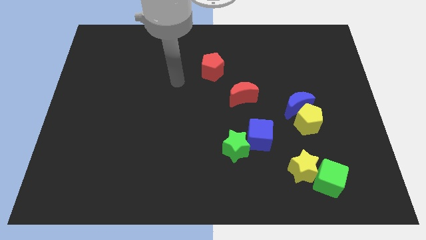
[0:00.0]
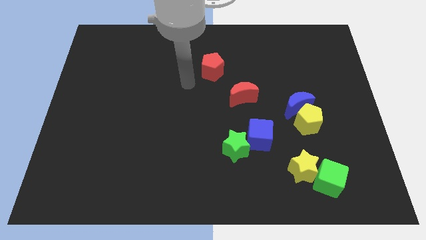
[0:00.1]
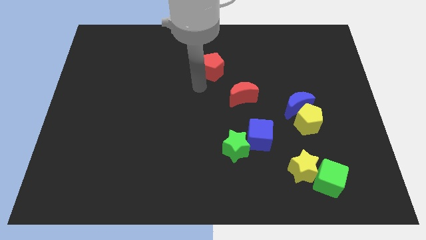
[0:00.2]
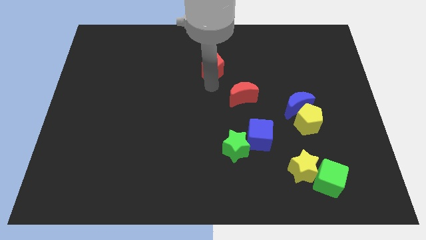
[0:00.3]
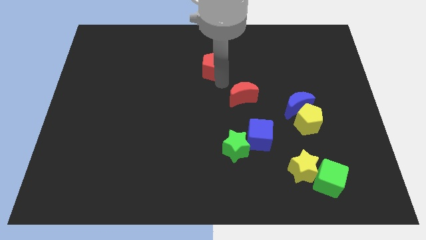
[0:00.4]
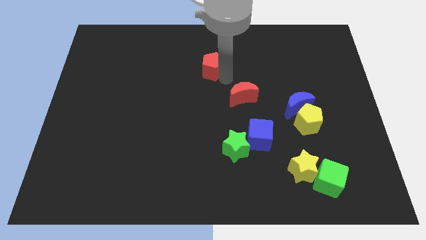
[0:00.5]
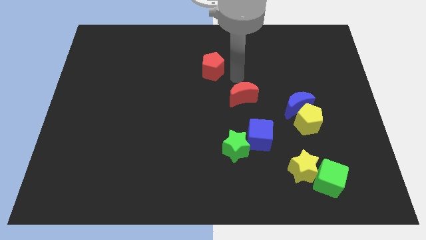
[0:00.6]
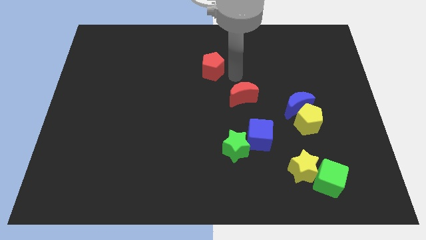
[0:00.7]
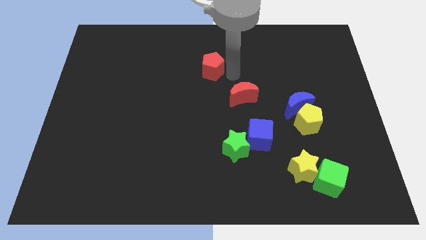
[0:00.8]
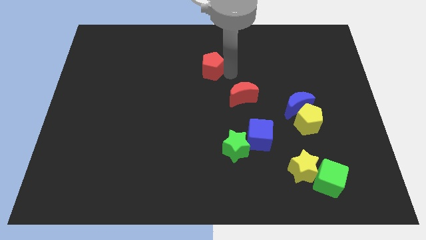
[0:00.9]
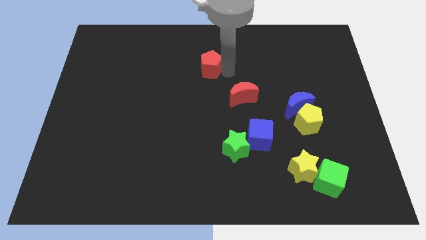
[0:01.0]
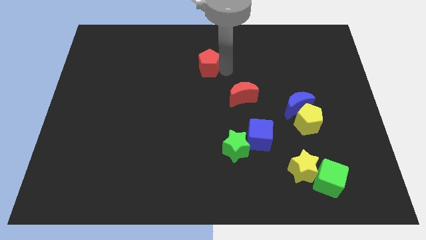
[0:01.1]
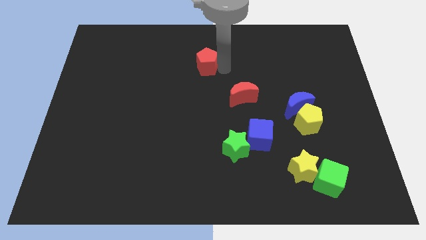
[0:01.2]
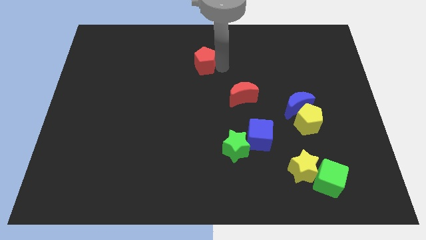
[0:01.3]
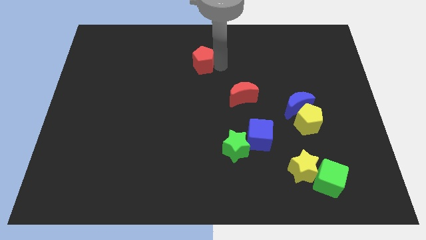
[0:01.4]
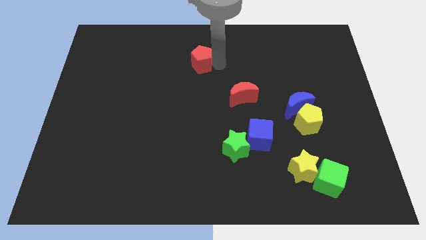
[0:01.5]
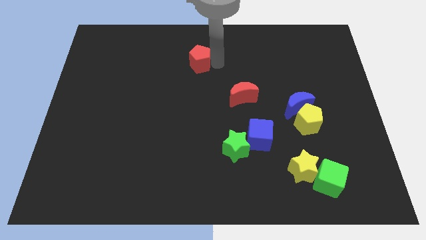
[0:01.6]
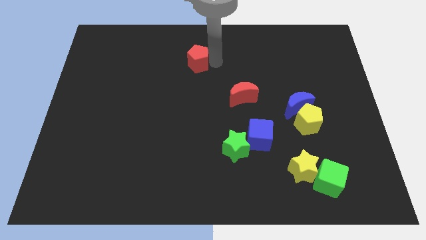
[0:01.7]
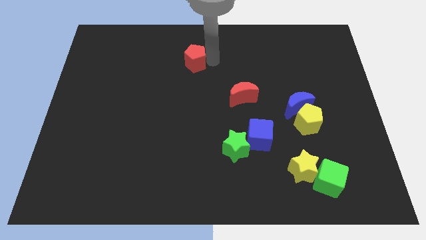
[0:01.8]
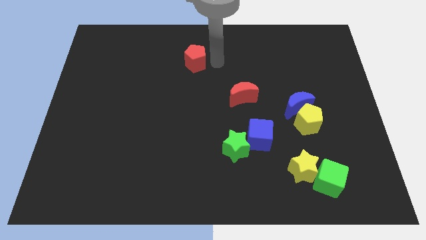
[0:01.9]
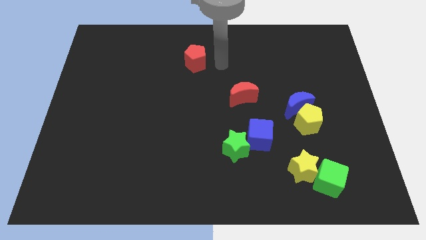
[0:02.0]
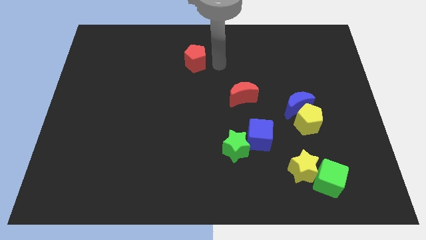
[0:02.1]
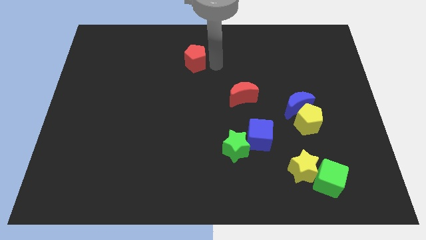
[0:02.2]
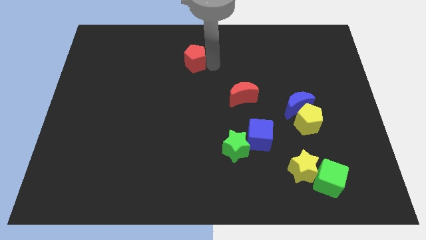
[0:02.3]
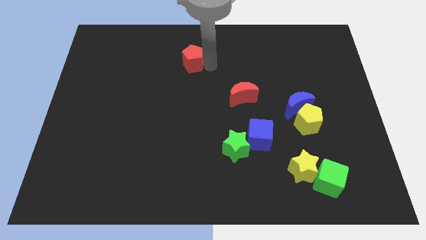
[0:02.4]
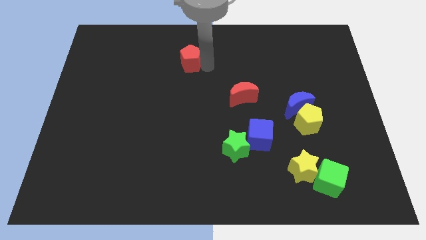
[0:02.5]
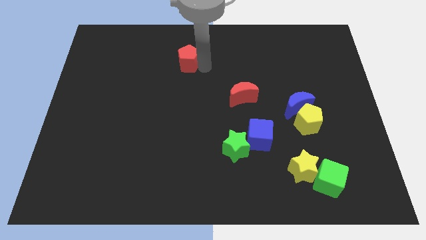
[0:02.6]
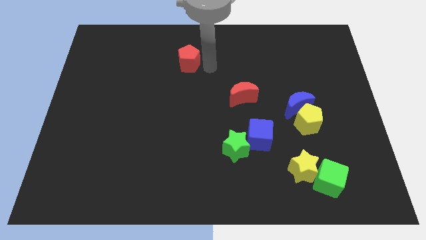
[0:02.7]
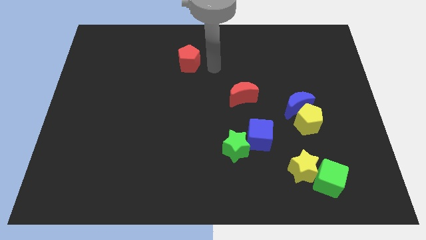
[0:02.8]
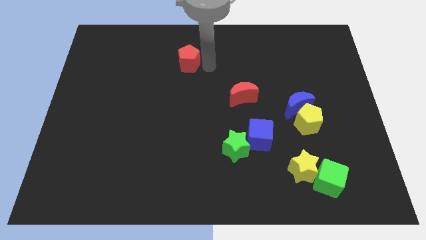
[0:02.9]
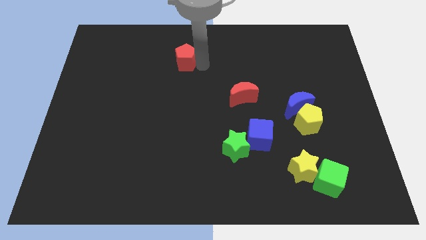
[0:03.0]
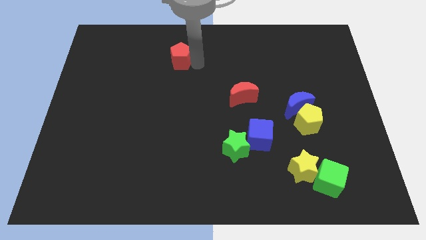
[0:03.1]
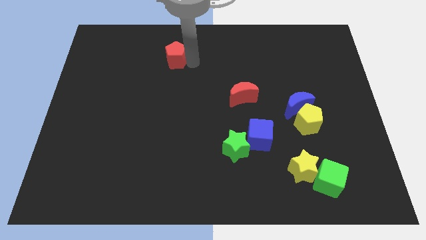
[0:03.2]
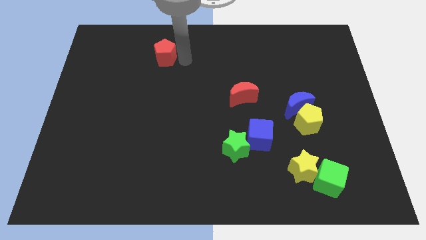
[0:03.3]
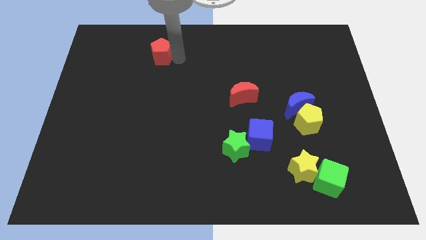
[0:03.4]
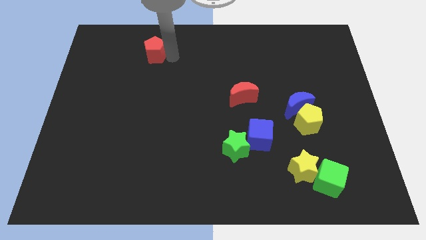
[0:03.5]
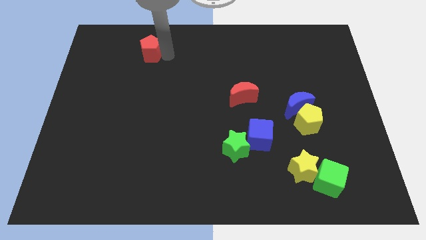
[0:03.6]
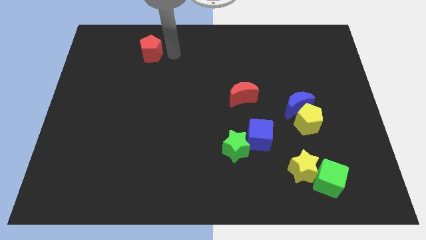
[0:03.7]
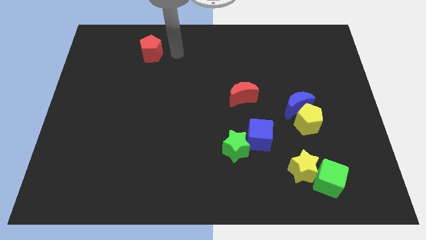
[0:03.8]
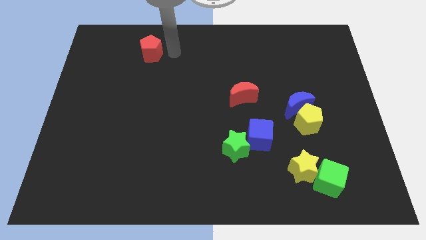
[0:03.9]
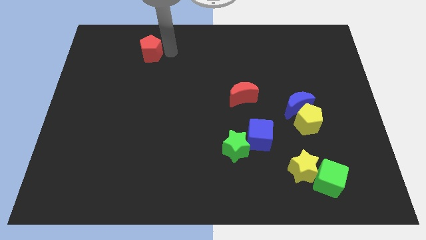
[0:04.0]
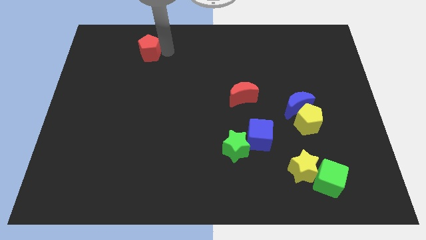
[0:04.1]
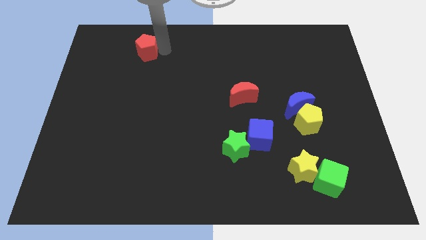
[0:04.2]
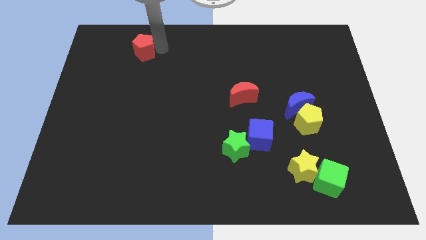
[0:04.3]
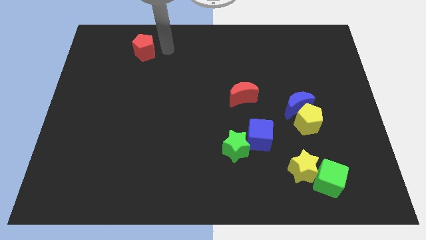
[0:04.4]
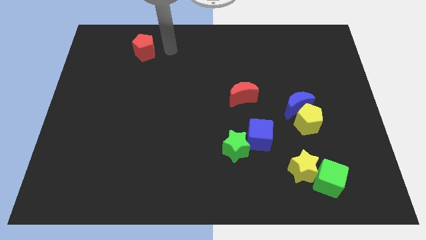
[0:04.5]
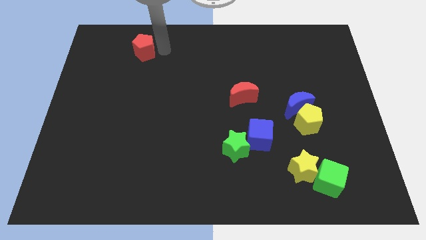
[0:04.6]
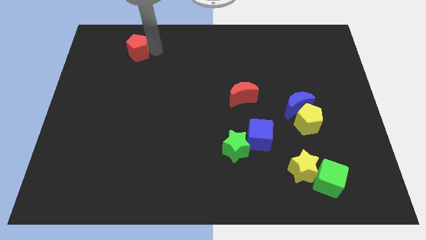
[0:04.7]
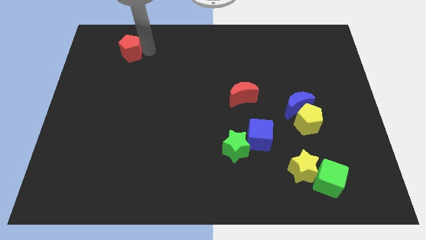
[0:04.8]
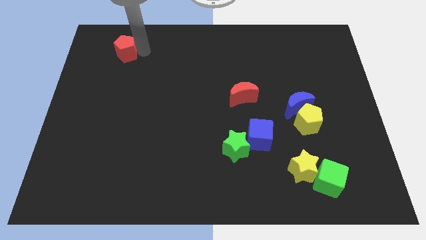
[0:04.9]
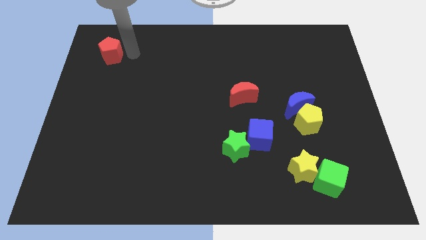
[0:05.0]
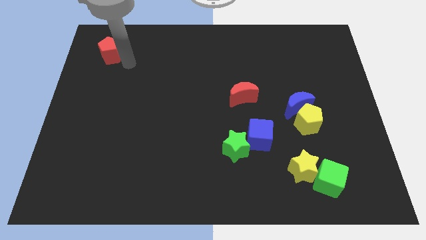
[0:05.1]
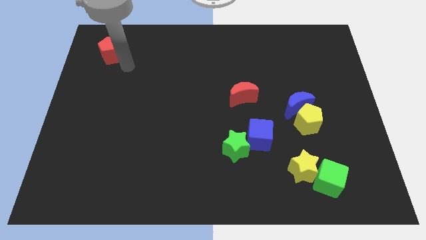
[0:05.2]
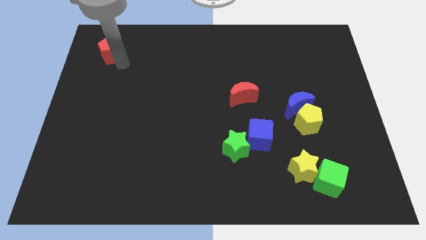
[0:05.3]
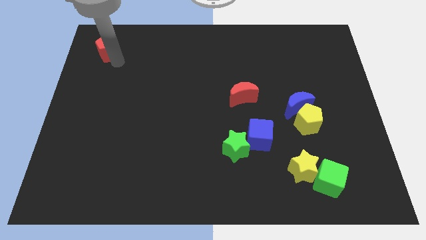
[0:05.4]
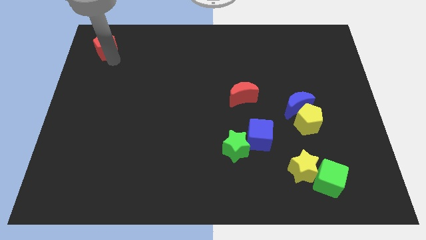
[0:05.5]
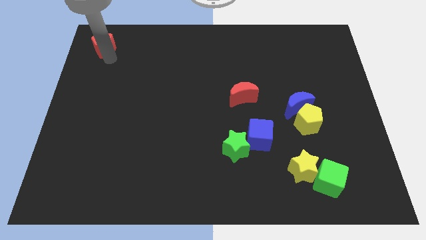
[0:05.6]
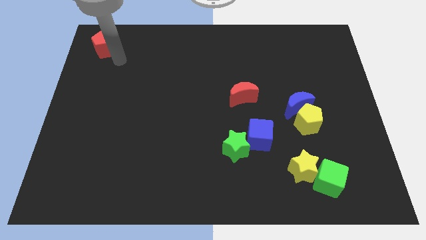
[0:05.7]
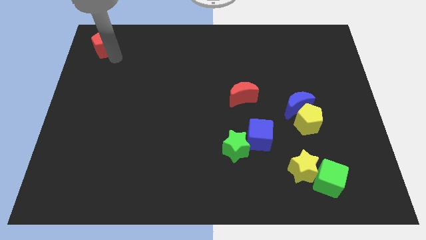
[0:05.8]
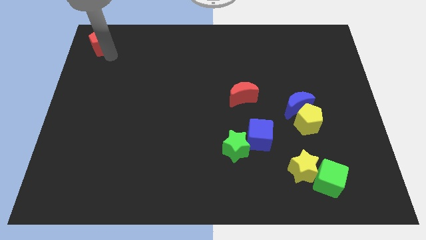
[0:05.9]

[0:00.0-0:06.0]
move the red pentagon to the top left corner

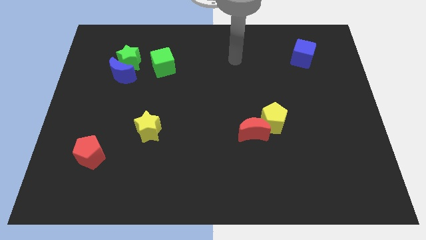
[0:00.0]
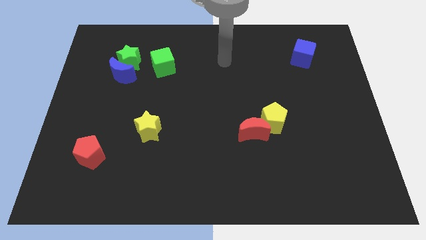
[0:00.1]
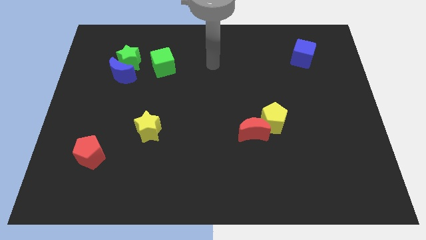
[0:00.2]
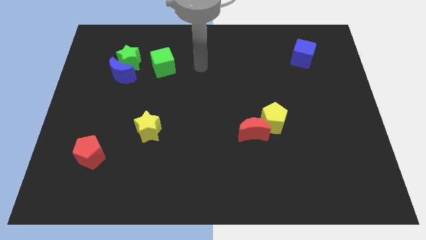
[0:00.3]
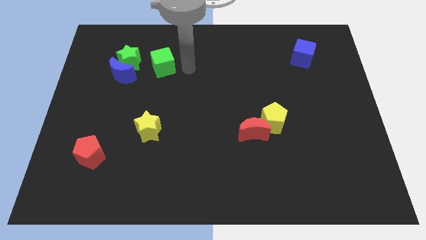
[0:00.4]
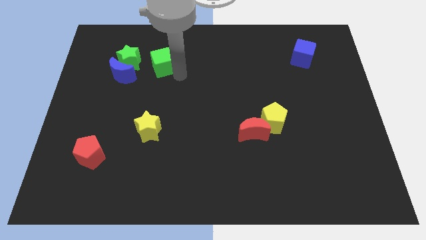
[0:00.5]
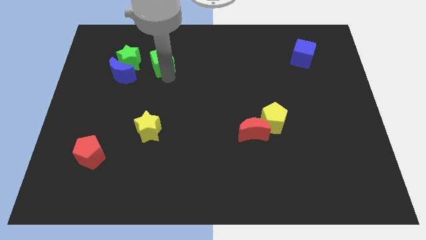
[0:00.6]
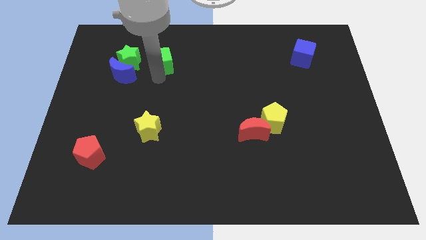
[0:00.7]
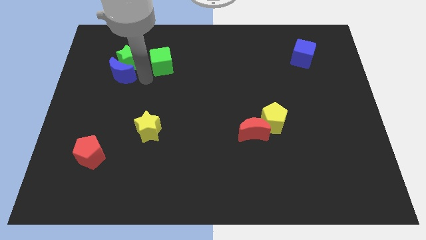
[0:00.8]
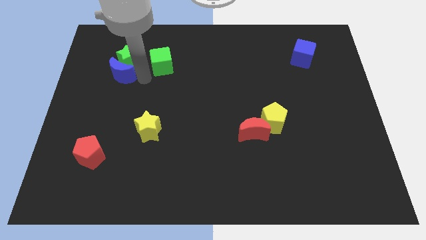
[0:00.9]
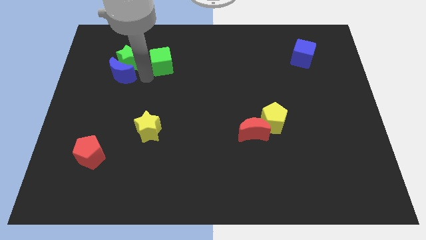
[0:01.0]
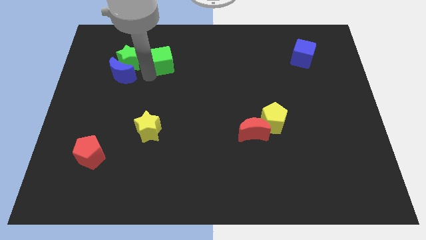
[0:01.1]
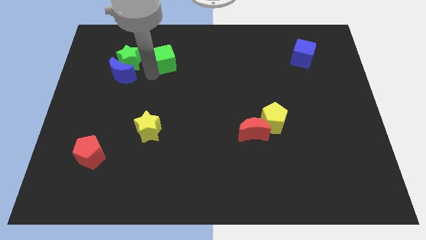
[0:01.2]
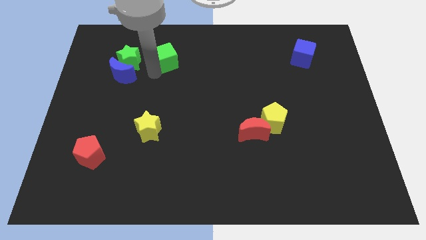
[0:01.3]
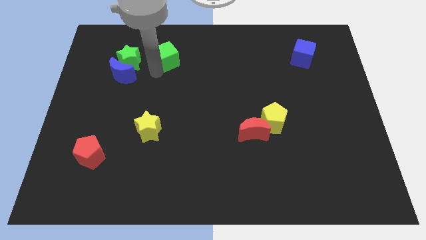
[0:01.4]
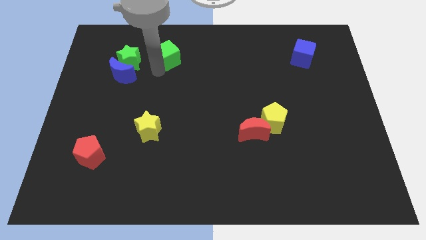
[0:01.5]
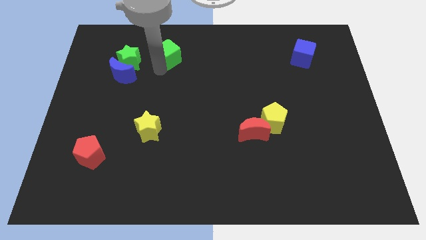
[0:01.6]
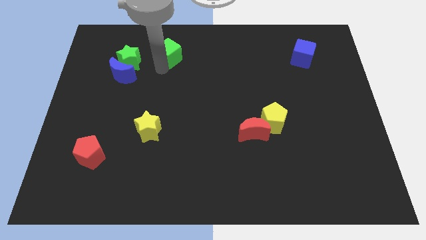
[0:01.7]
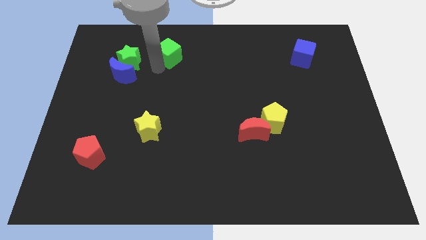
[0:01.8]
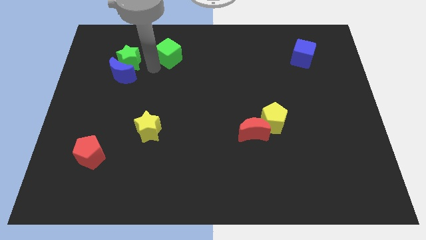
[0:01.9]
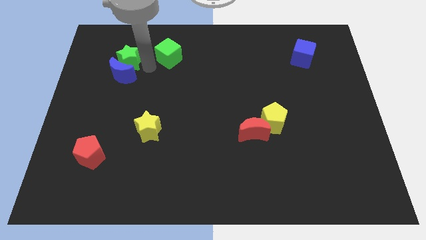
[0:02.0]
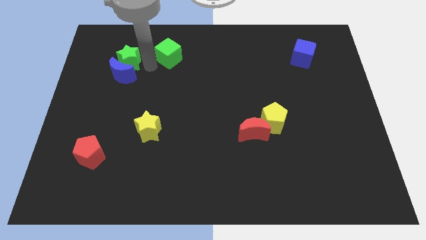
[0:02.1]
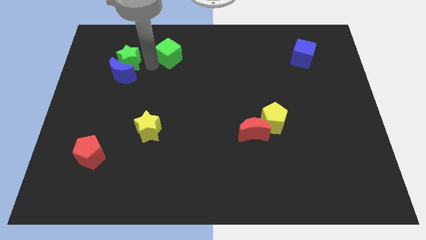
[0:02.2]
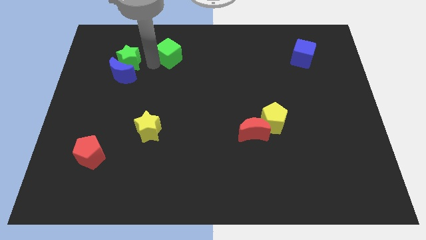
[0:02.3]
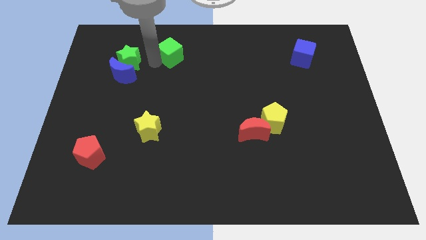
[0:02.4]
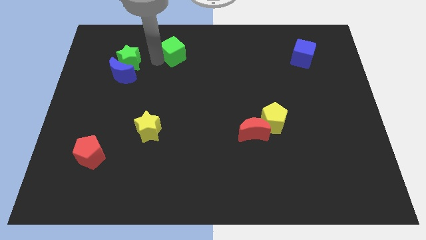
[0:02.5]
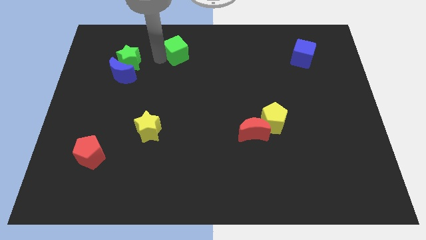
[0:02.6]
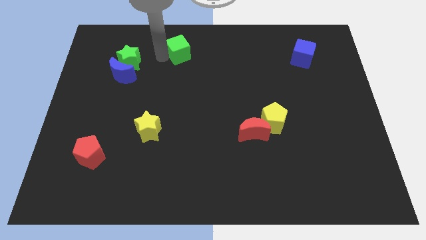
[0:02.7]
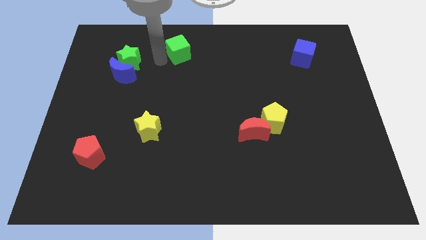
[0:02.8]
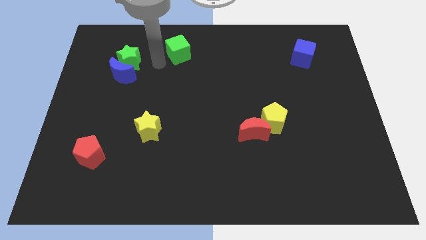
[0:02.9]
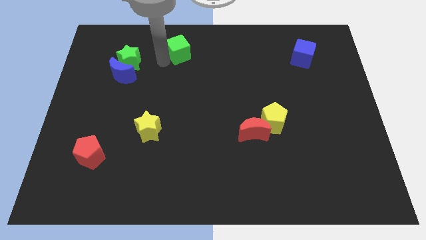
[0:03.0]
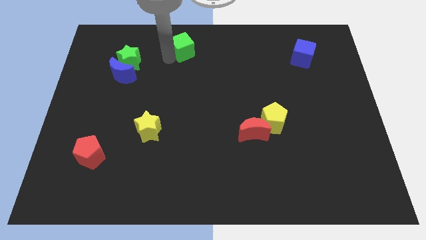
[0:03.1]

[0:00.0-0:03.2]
move the green cube to the top
